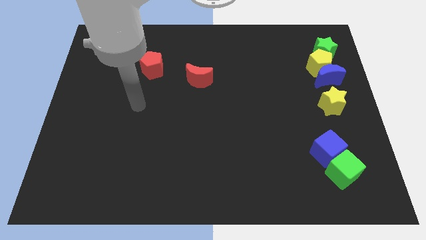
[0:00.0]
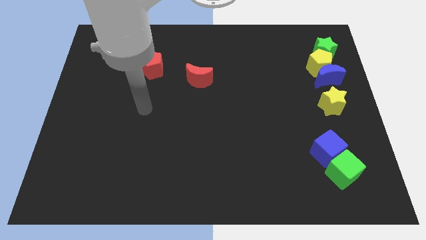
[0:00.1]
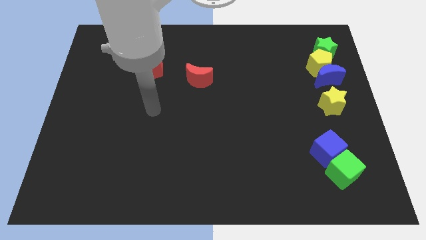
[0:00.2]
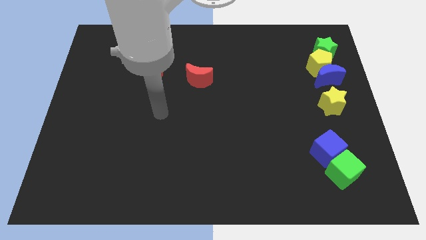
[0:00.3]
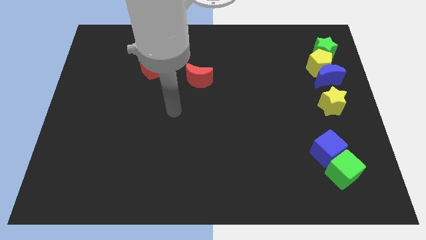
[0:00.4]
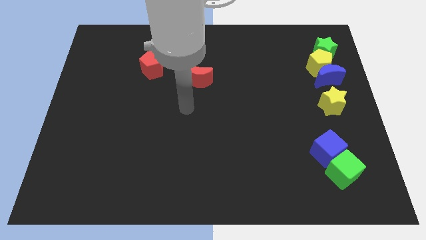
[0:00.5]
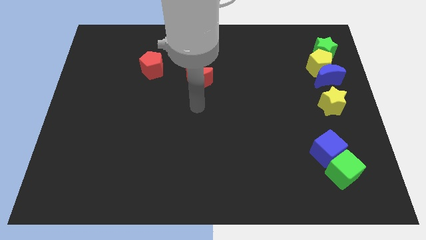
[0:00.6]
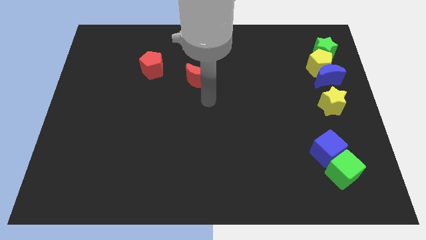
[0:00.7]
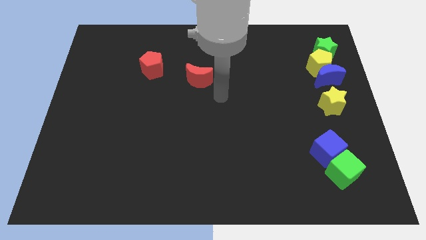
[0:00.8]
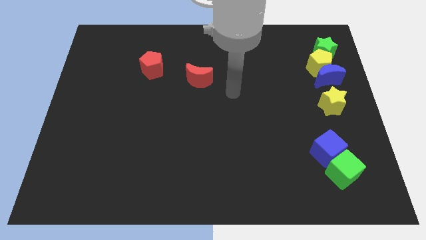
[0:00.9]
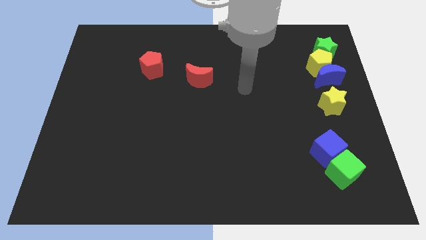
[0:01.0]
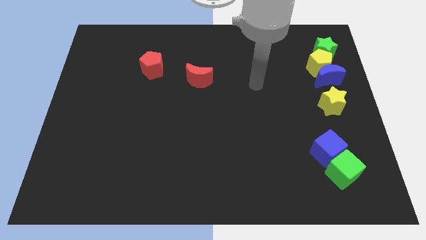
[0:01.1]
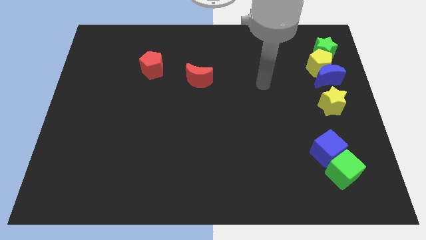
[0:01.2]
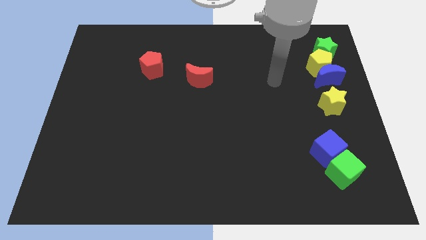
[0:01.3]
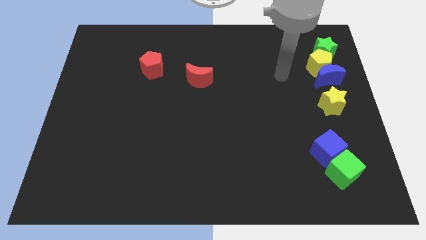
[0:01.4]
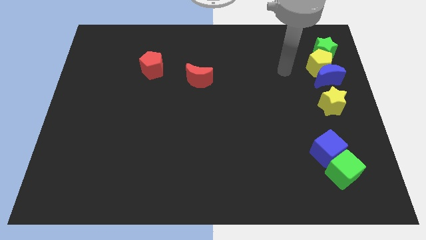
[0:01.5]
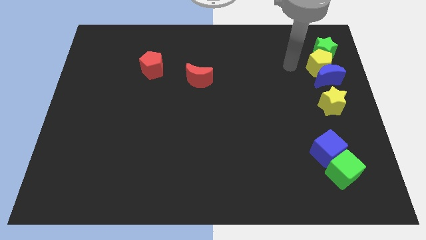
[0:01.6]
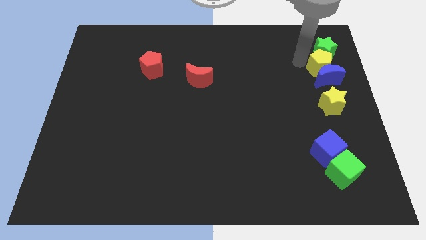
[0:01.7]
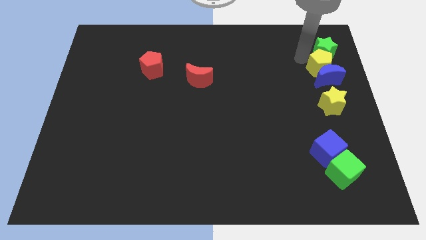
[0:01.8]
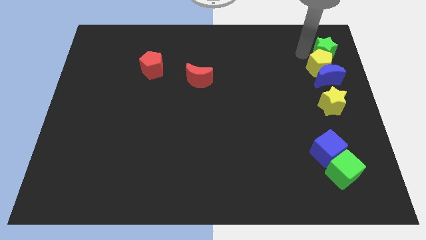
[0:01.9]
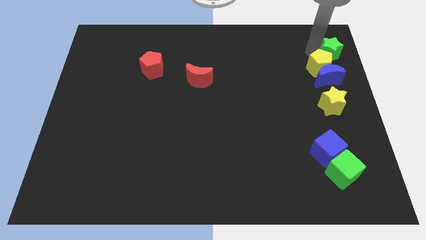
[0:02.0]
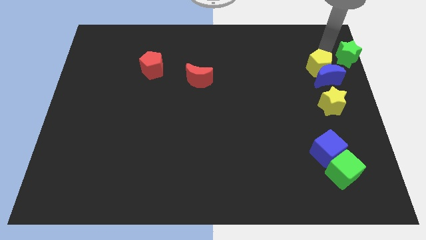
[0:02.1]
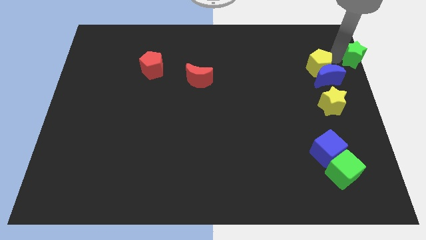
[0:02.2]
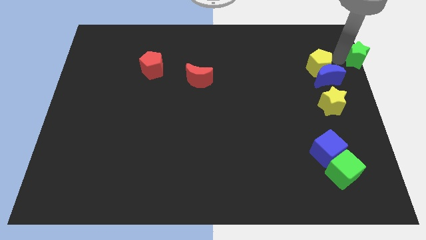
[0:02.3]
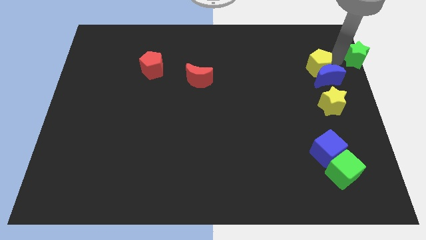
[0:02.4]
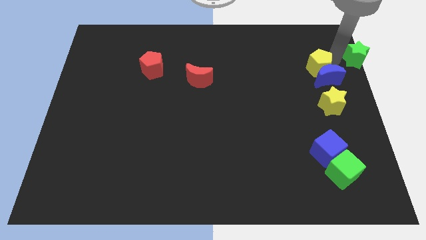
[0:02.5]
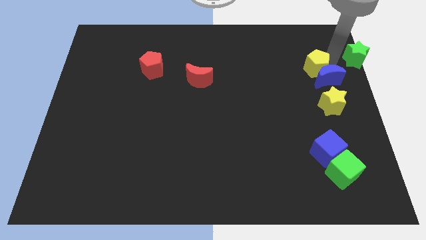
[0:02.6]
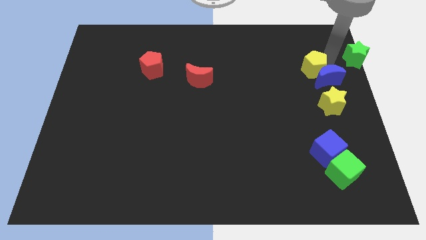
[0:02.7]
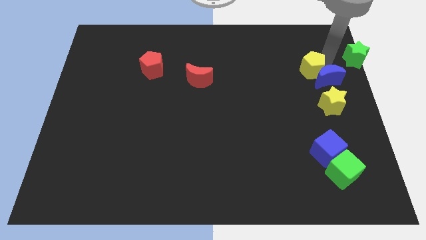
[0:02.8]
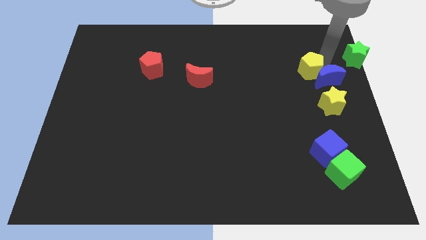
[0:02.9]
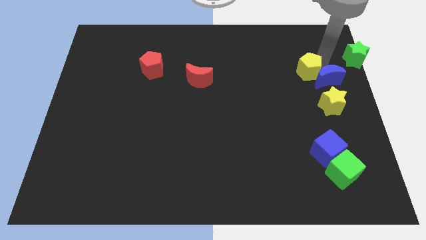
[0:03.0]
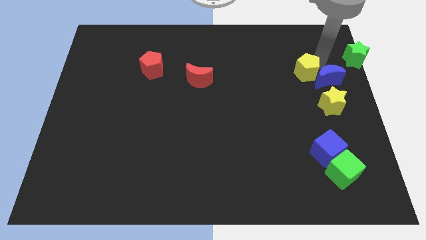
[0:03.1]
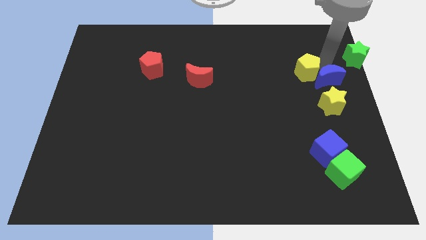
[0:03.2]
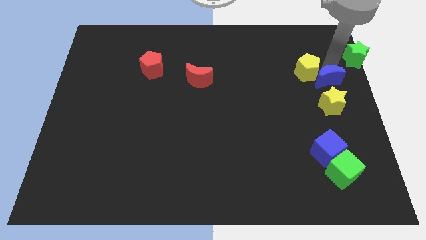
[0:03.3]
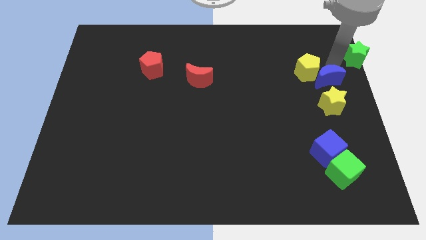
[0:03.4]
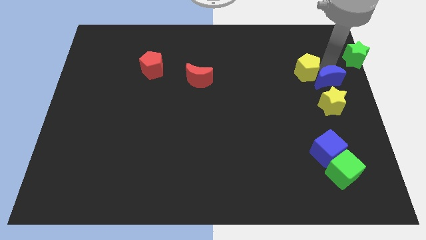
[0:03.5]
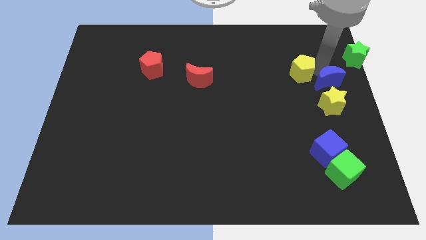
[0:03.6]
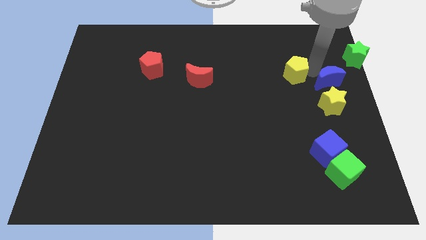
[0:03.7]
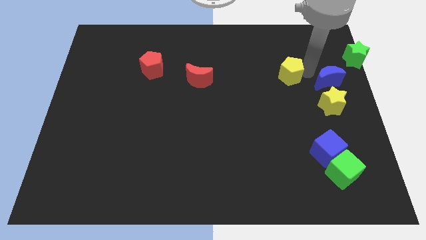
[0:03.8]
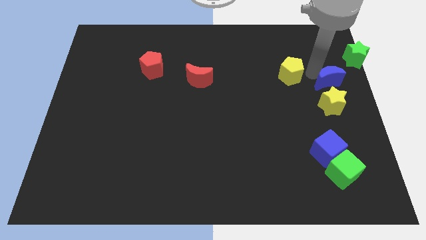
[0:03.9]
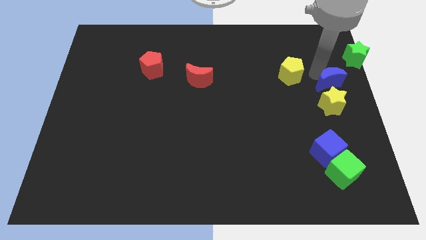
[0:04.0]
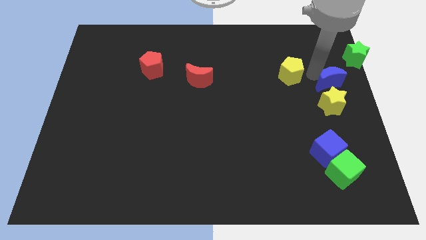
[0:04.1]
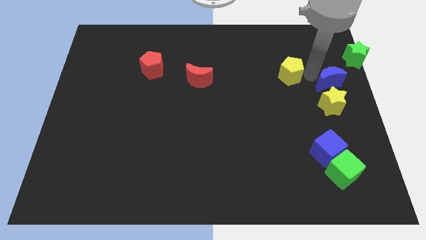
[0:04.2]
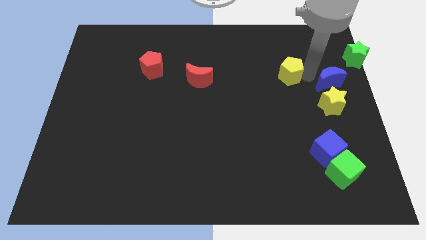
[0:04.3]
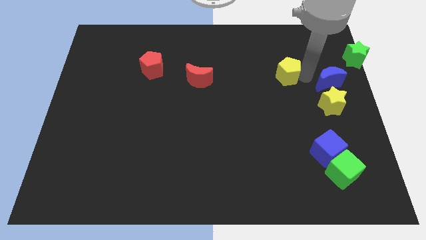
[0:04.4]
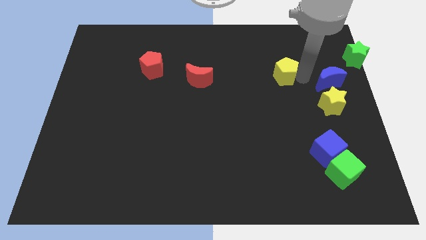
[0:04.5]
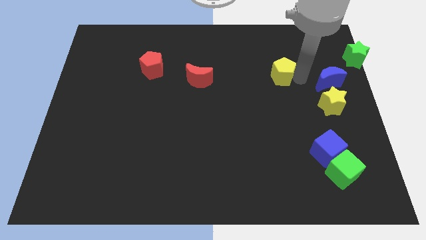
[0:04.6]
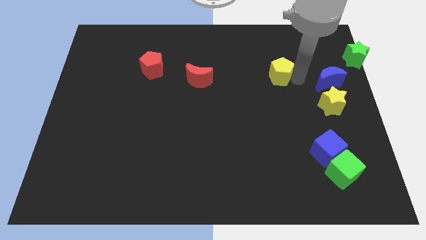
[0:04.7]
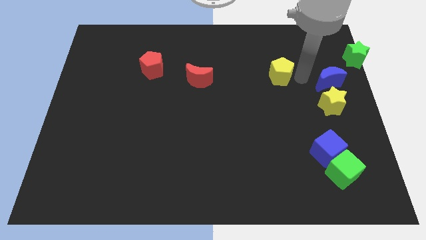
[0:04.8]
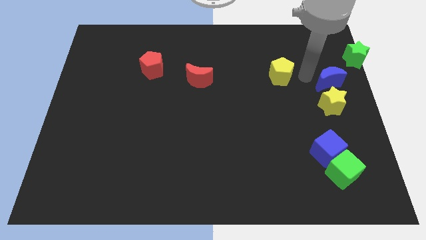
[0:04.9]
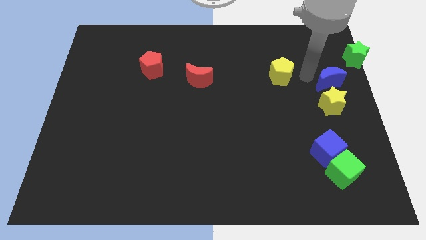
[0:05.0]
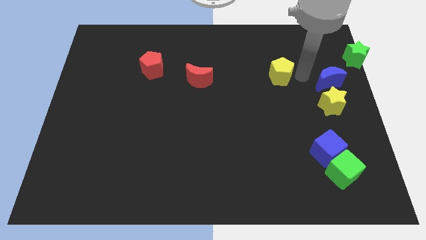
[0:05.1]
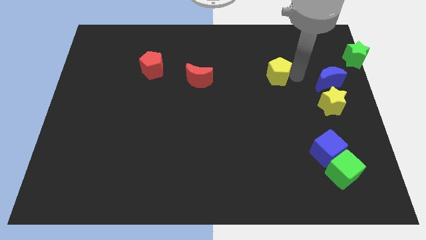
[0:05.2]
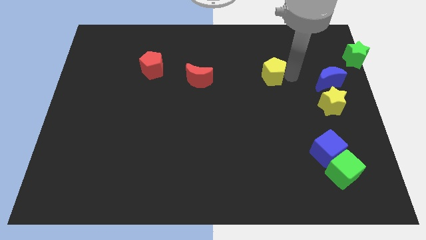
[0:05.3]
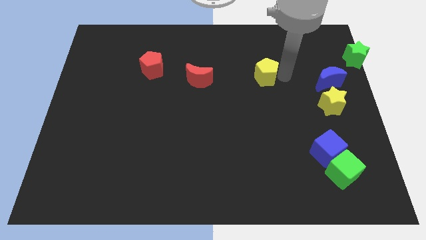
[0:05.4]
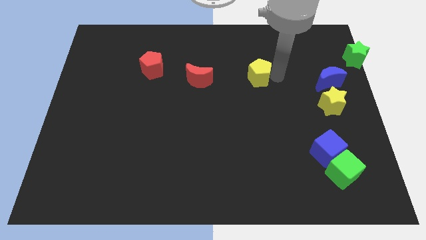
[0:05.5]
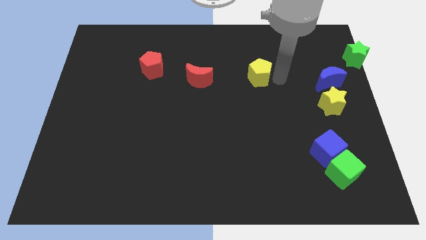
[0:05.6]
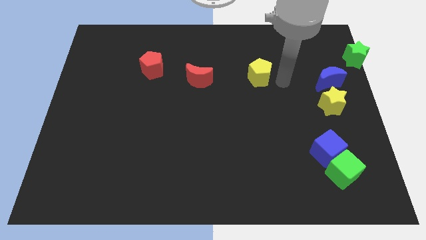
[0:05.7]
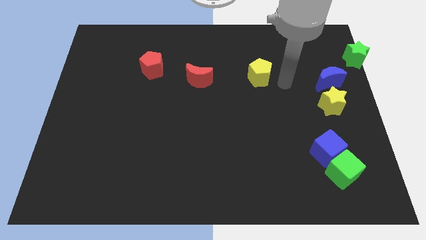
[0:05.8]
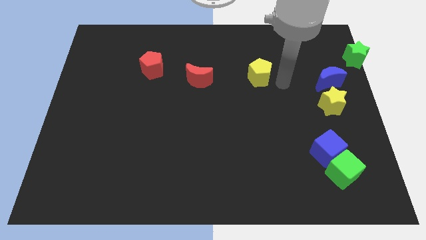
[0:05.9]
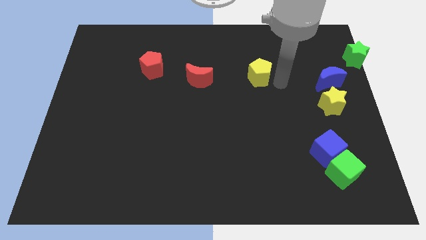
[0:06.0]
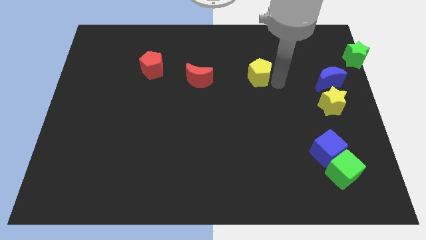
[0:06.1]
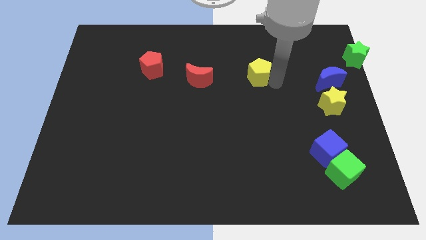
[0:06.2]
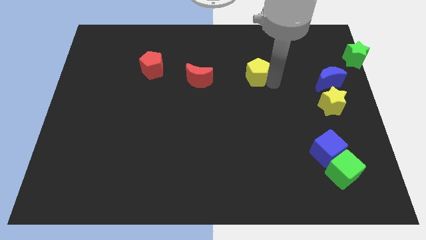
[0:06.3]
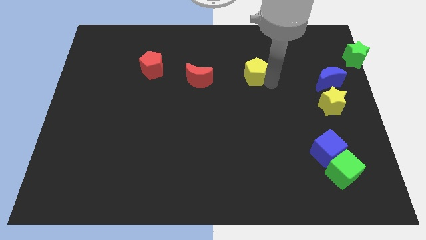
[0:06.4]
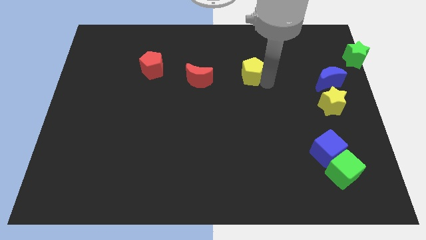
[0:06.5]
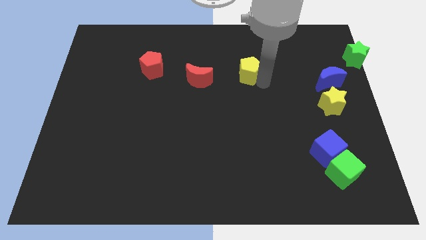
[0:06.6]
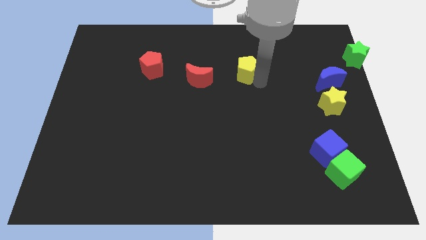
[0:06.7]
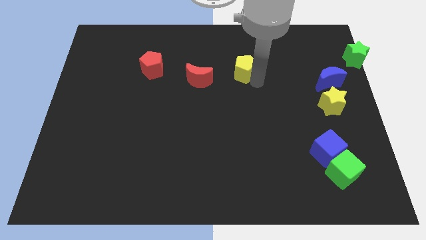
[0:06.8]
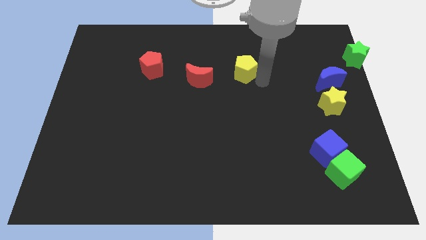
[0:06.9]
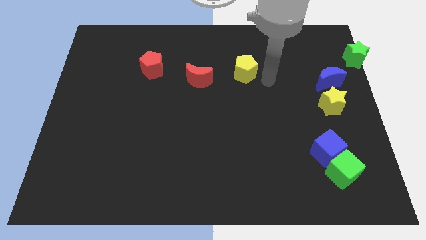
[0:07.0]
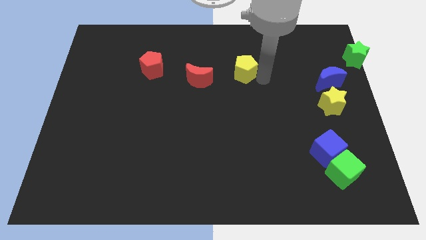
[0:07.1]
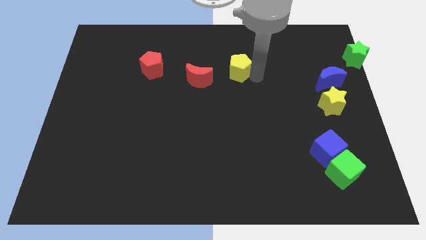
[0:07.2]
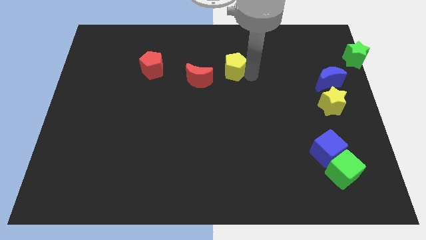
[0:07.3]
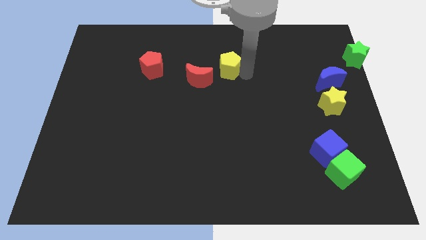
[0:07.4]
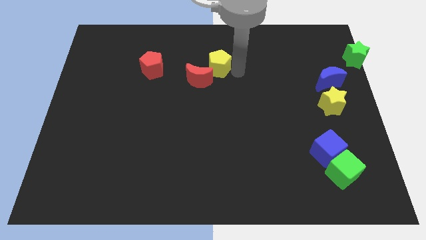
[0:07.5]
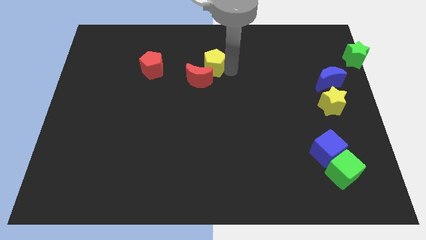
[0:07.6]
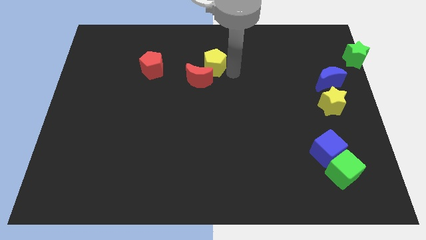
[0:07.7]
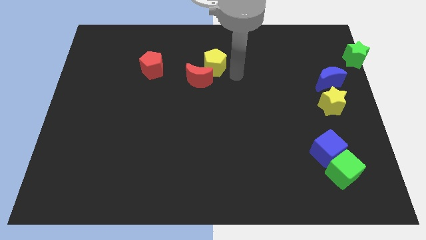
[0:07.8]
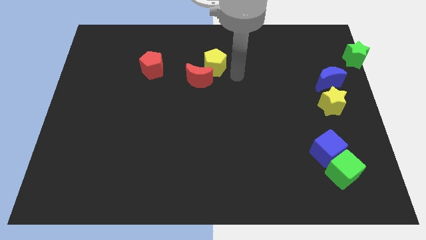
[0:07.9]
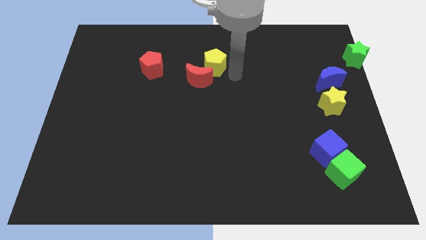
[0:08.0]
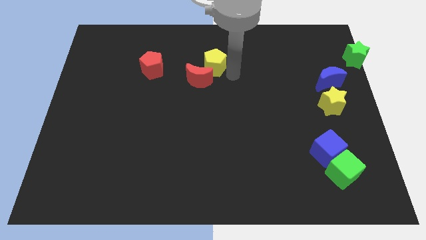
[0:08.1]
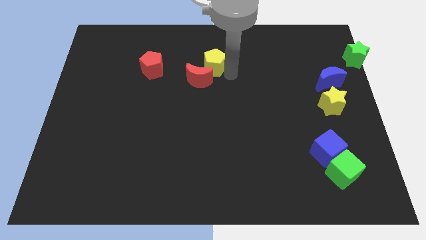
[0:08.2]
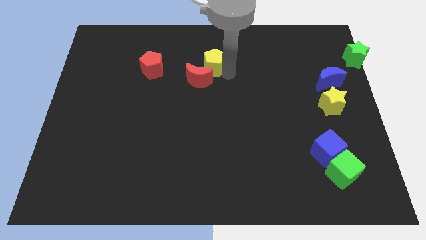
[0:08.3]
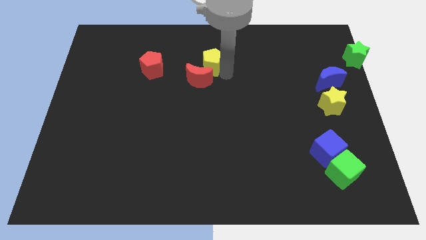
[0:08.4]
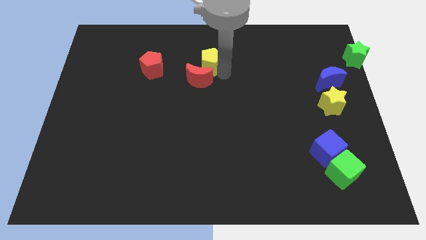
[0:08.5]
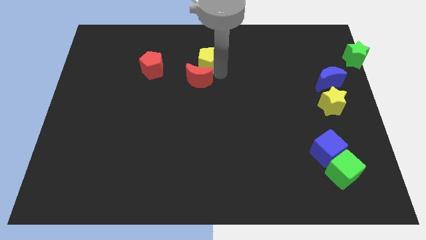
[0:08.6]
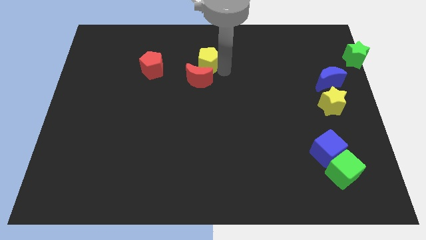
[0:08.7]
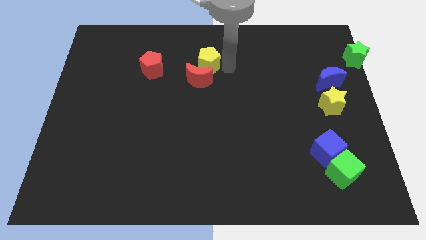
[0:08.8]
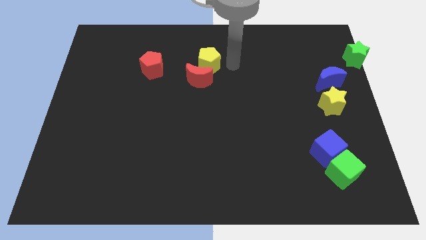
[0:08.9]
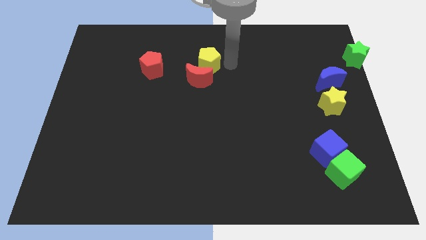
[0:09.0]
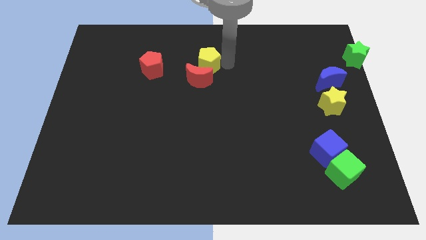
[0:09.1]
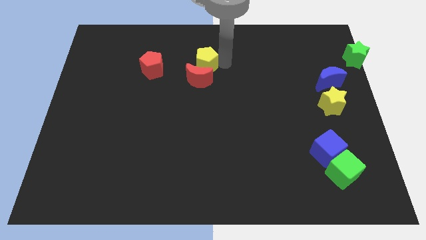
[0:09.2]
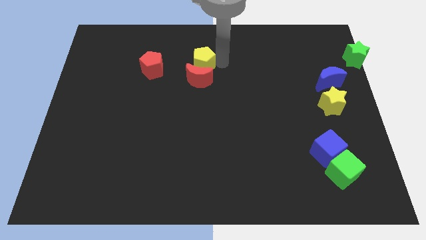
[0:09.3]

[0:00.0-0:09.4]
put the yellow pentagon to the top left of the red moon
